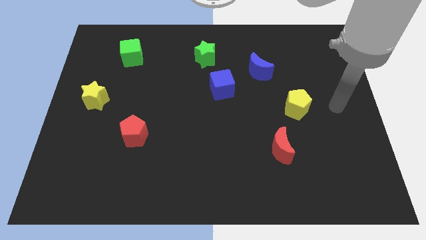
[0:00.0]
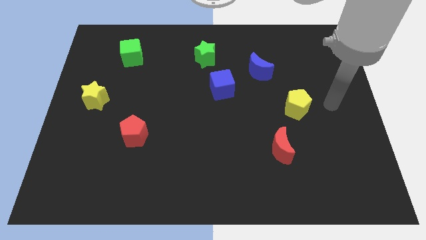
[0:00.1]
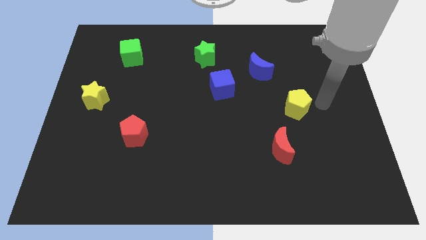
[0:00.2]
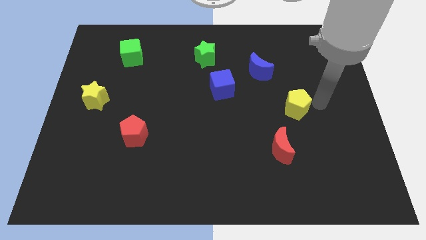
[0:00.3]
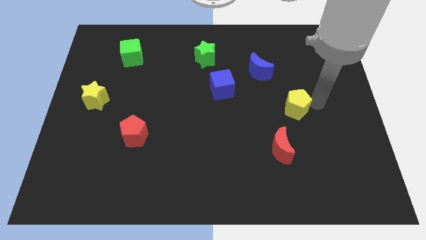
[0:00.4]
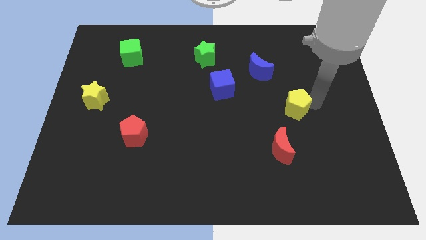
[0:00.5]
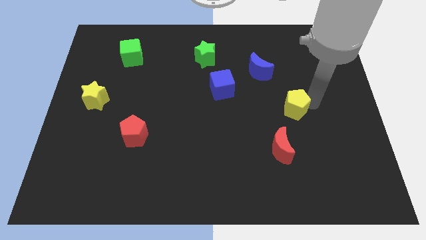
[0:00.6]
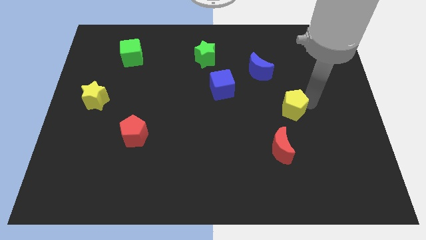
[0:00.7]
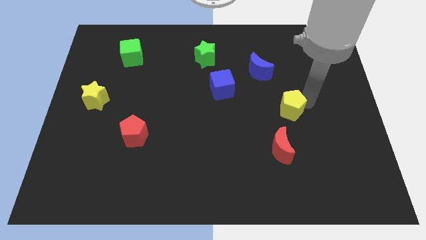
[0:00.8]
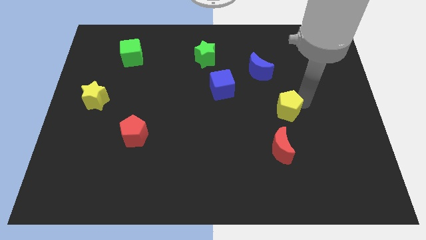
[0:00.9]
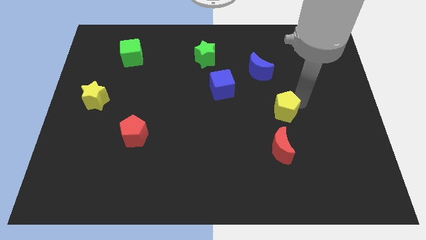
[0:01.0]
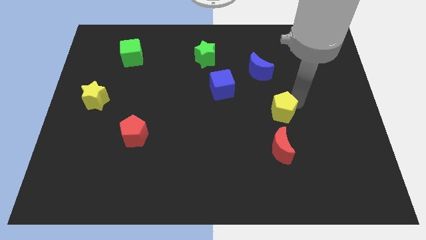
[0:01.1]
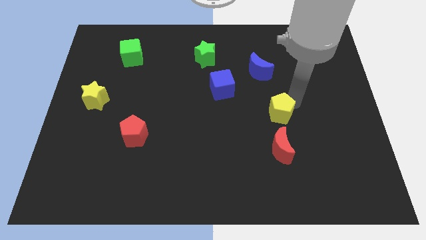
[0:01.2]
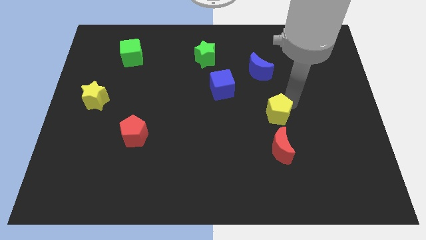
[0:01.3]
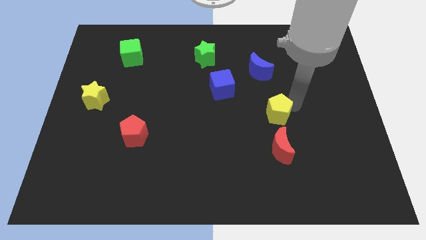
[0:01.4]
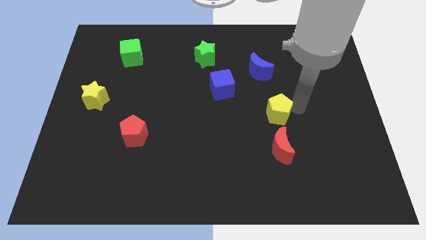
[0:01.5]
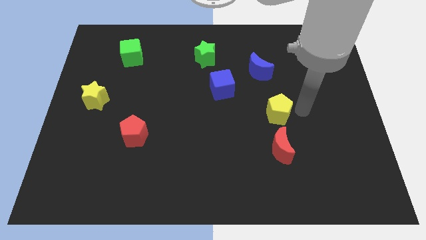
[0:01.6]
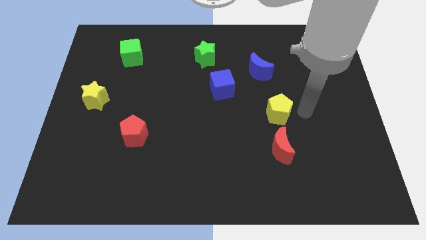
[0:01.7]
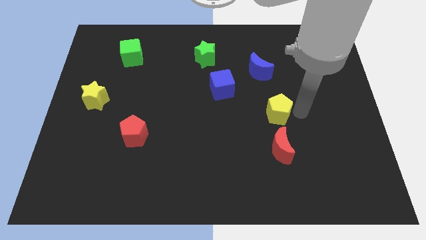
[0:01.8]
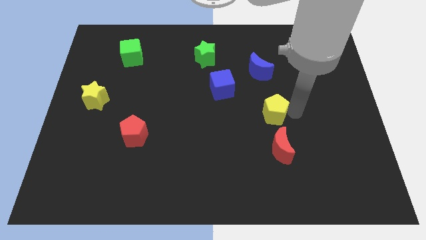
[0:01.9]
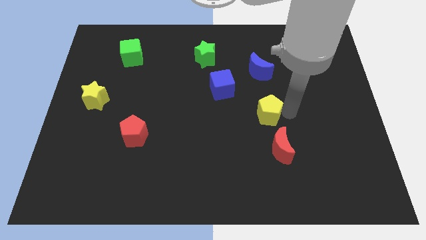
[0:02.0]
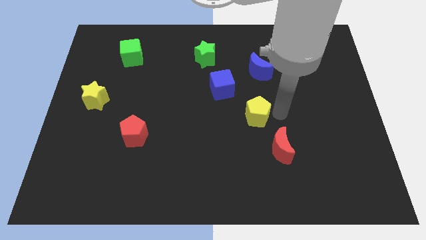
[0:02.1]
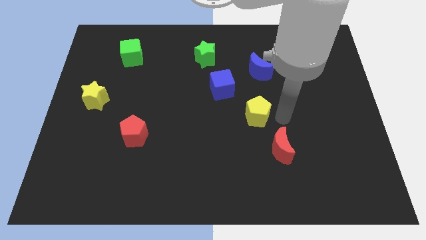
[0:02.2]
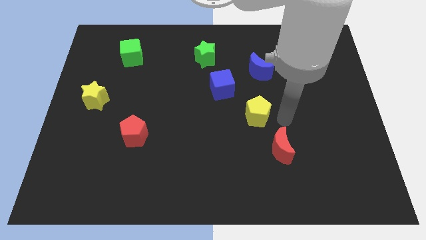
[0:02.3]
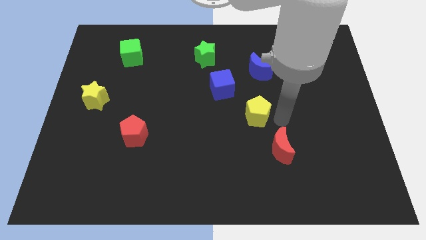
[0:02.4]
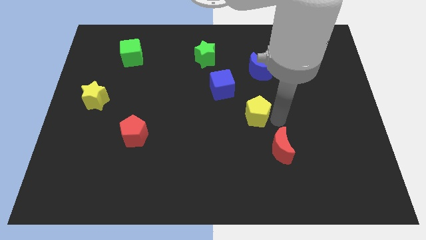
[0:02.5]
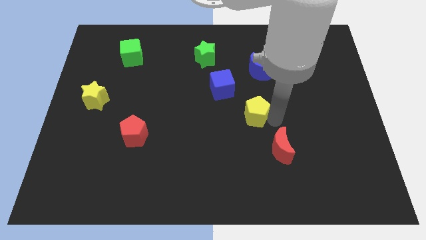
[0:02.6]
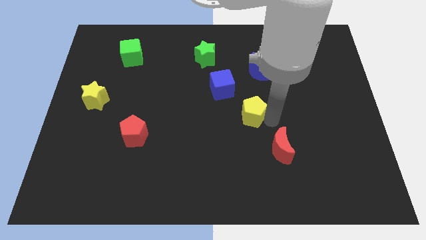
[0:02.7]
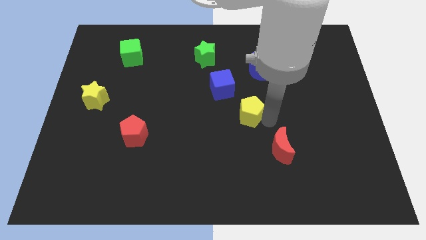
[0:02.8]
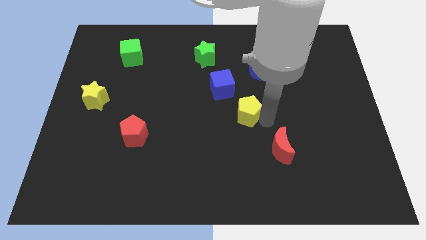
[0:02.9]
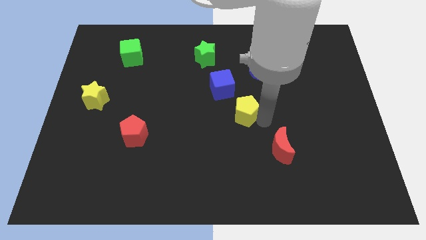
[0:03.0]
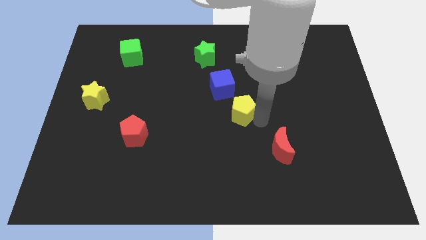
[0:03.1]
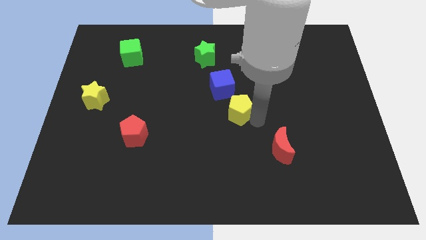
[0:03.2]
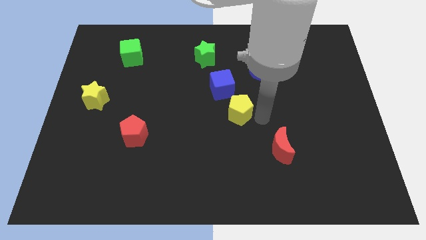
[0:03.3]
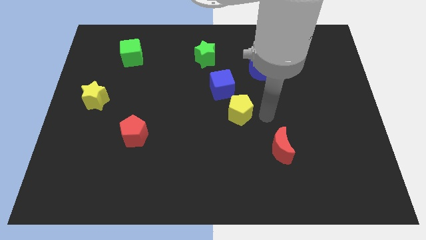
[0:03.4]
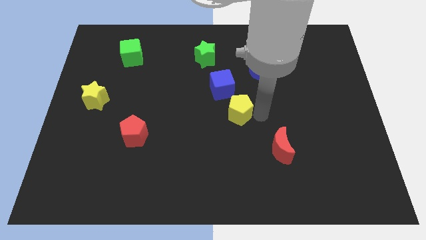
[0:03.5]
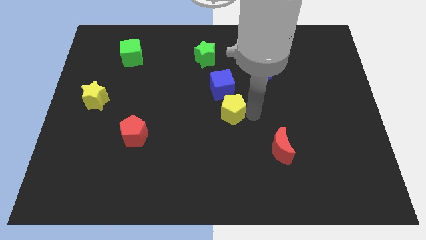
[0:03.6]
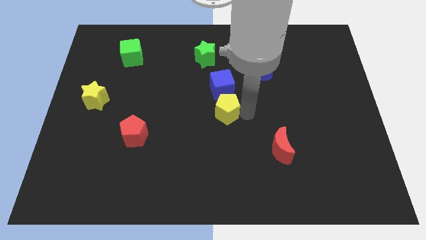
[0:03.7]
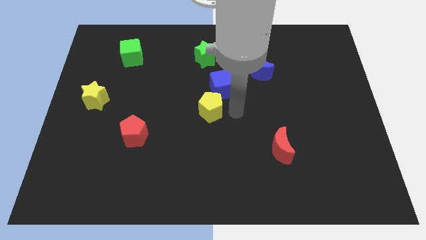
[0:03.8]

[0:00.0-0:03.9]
slide the yellow pentagon to the left

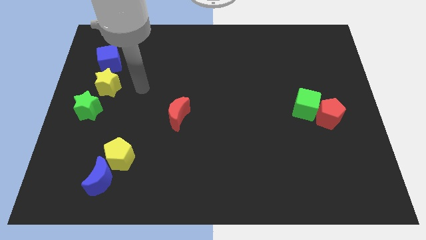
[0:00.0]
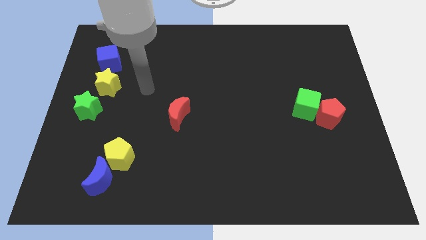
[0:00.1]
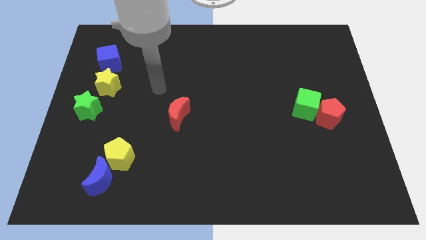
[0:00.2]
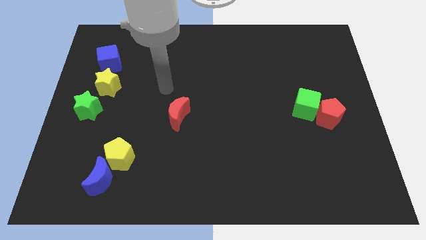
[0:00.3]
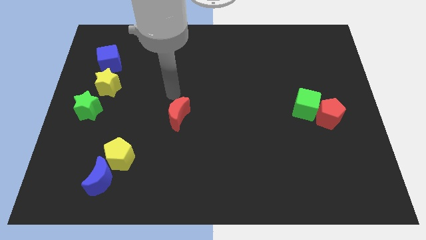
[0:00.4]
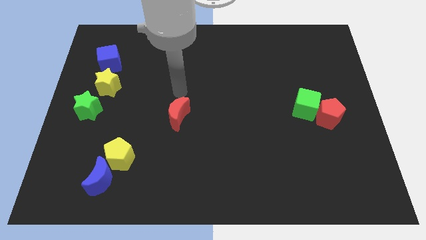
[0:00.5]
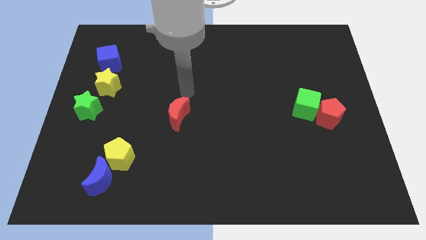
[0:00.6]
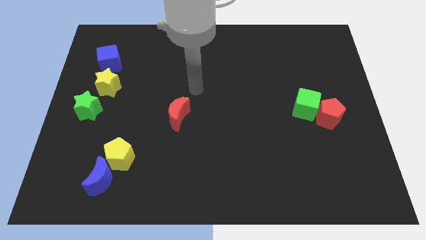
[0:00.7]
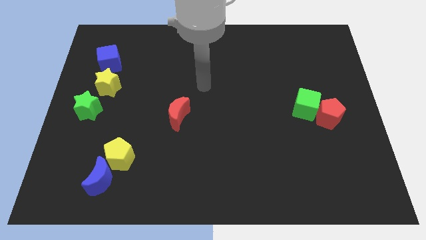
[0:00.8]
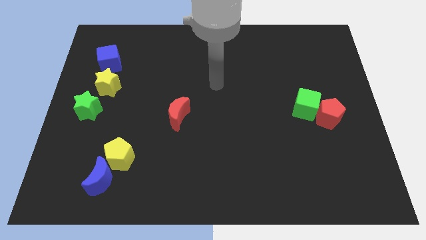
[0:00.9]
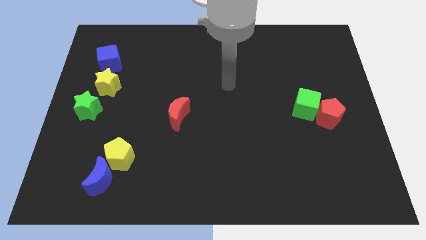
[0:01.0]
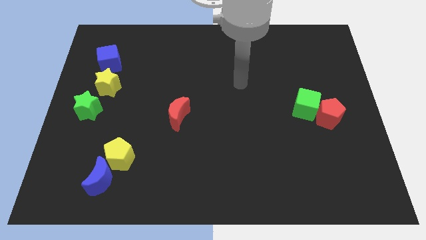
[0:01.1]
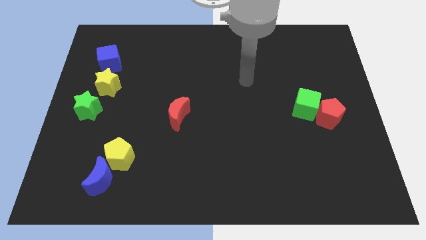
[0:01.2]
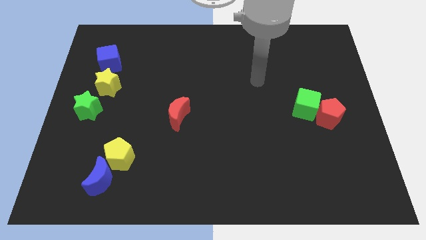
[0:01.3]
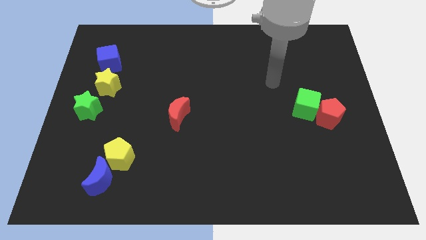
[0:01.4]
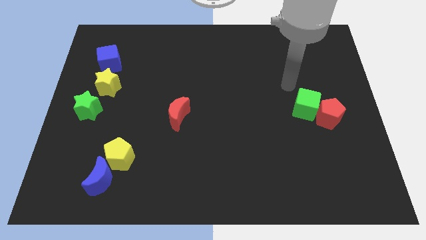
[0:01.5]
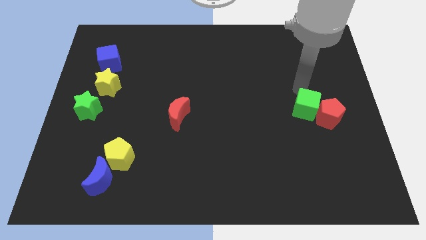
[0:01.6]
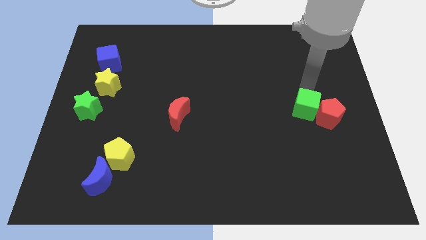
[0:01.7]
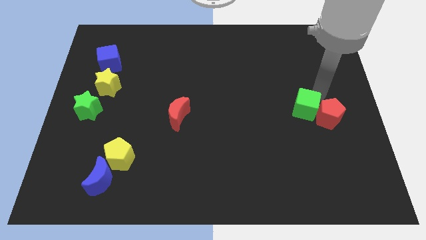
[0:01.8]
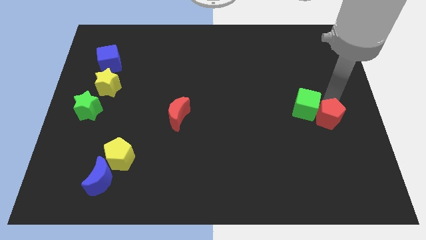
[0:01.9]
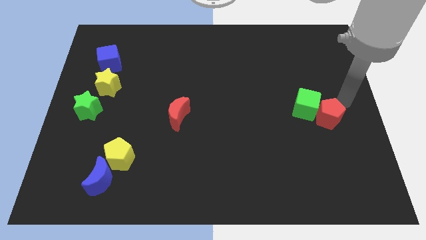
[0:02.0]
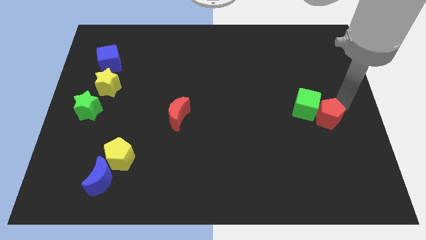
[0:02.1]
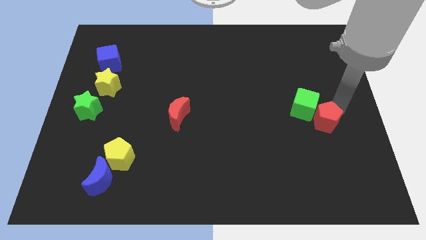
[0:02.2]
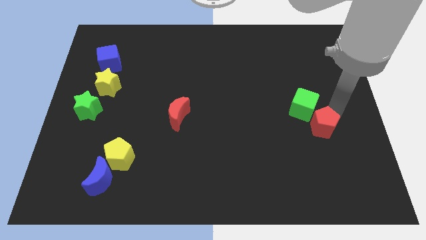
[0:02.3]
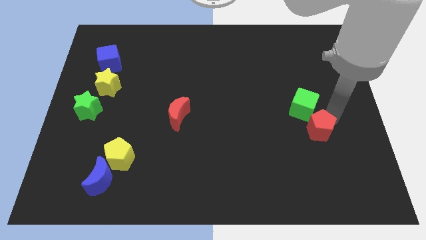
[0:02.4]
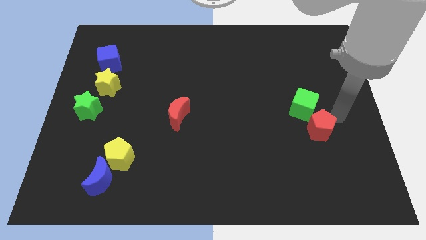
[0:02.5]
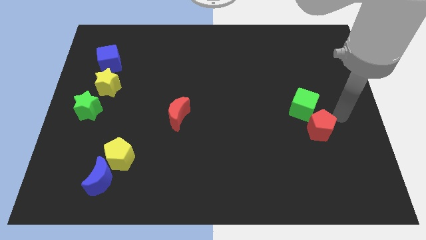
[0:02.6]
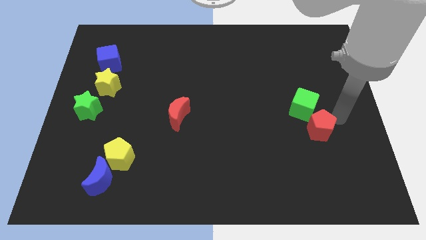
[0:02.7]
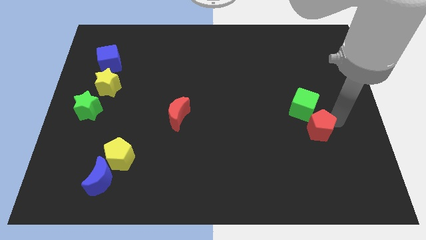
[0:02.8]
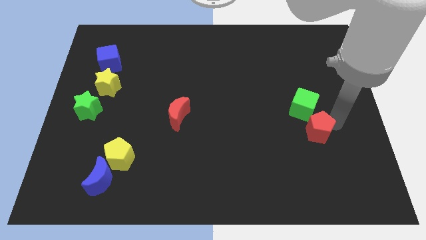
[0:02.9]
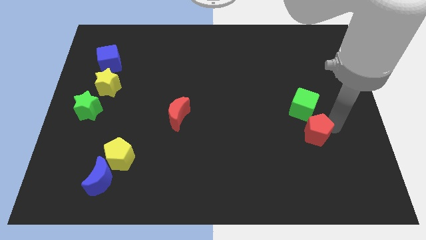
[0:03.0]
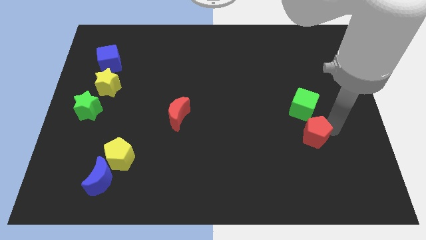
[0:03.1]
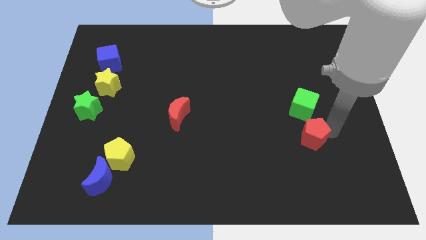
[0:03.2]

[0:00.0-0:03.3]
slide the red pentagon down and to the left diagonally somewhat

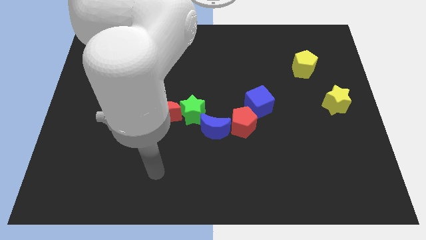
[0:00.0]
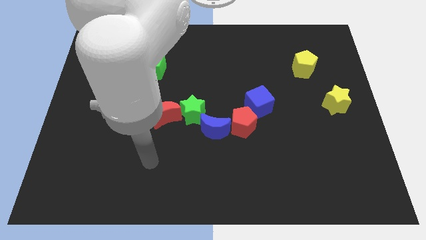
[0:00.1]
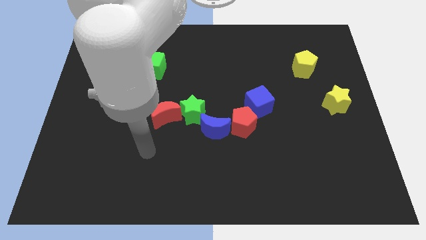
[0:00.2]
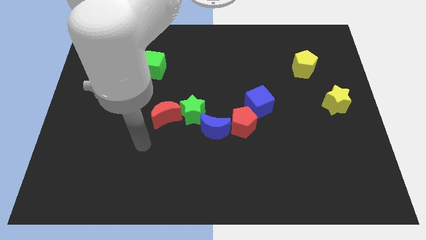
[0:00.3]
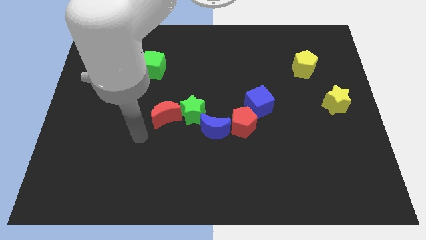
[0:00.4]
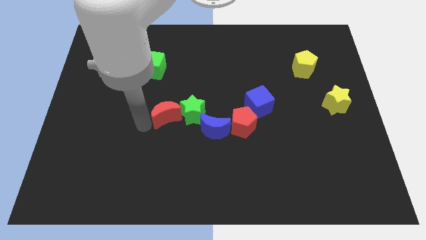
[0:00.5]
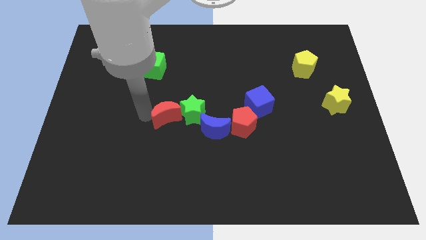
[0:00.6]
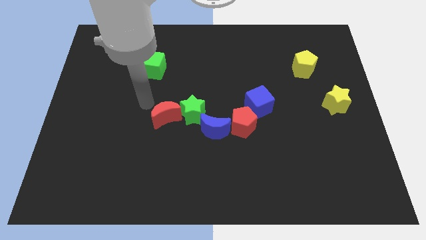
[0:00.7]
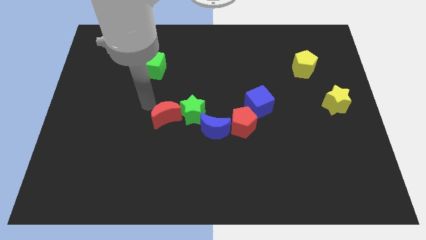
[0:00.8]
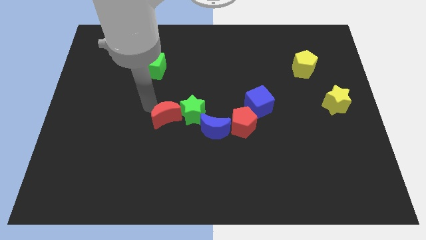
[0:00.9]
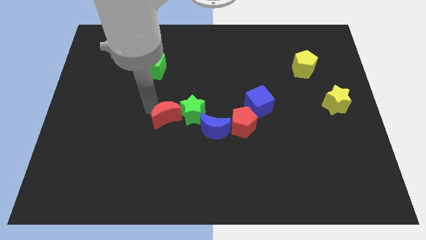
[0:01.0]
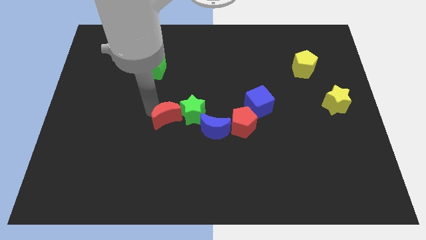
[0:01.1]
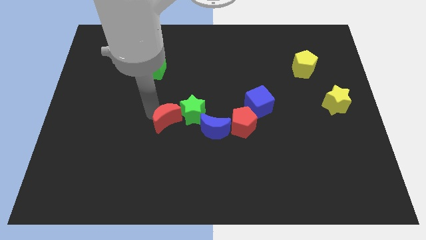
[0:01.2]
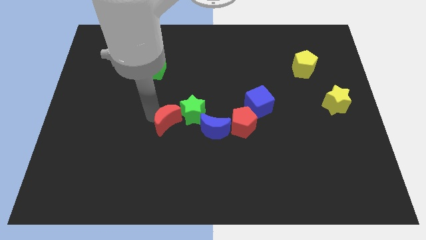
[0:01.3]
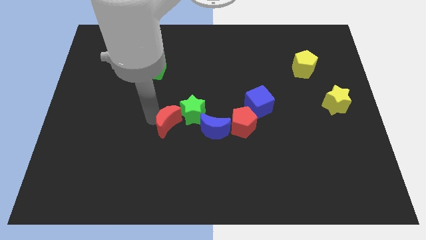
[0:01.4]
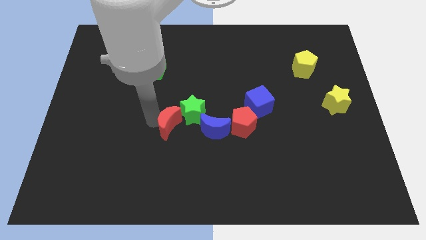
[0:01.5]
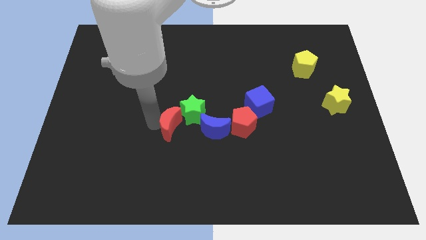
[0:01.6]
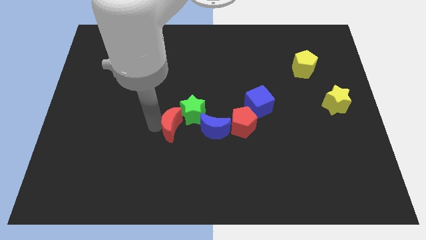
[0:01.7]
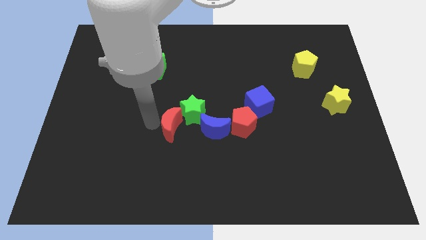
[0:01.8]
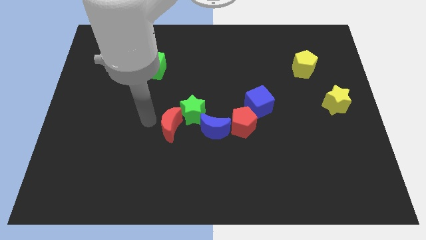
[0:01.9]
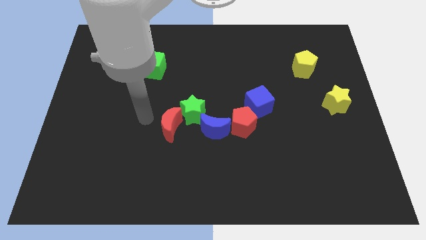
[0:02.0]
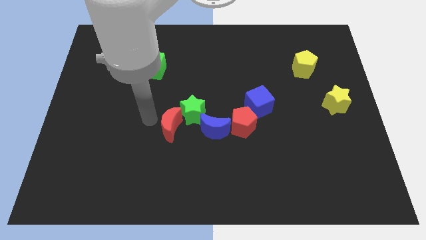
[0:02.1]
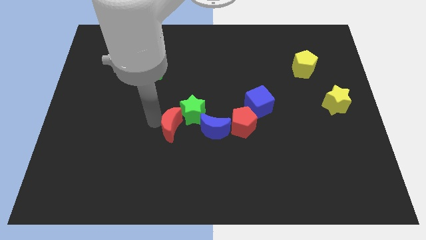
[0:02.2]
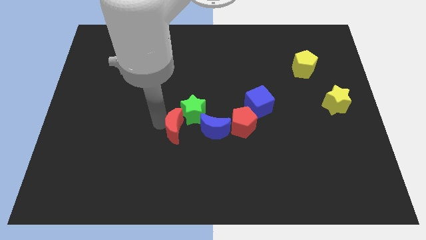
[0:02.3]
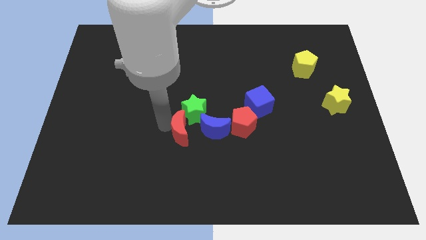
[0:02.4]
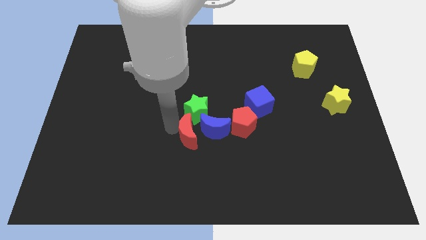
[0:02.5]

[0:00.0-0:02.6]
push the red moon down and to the right diagonally a bit
